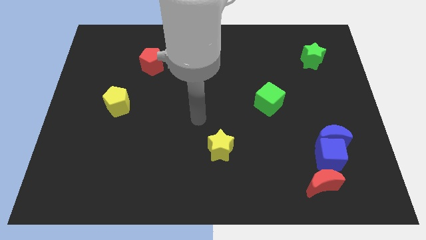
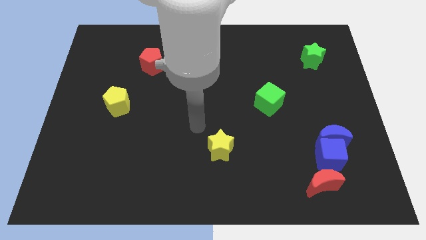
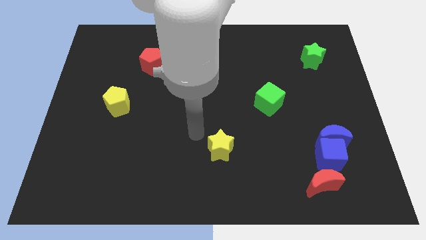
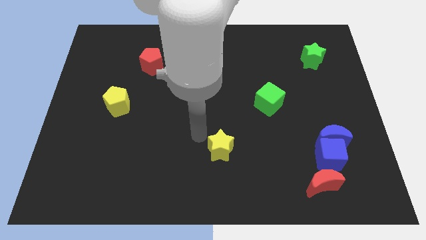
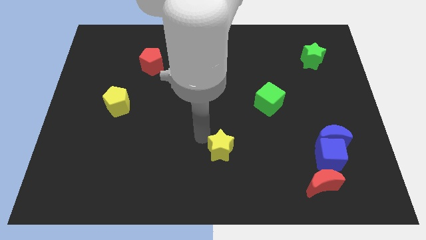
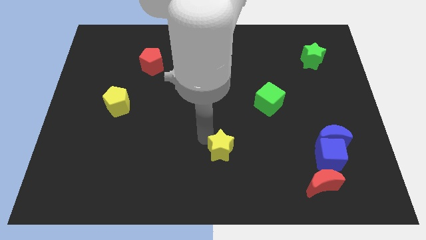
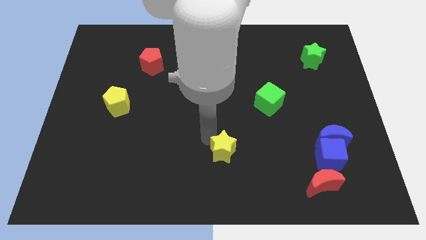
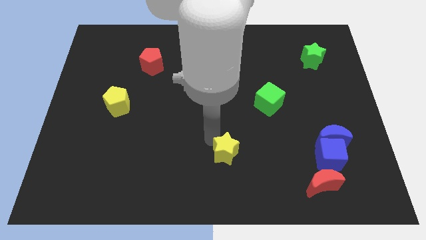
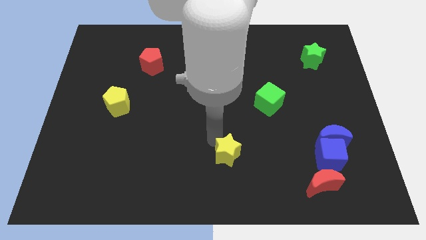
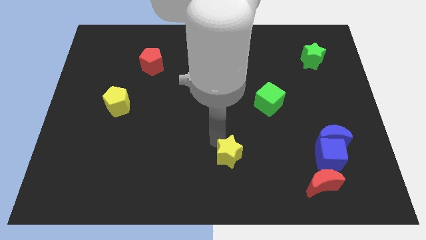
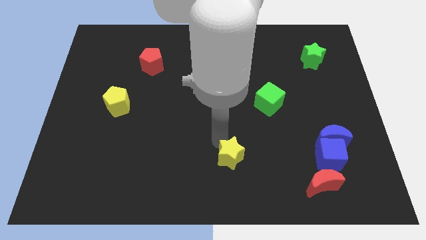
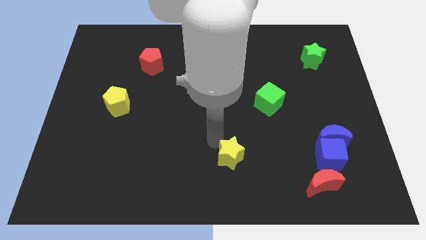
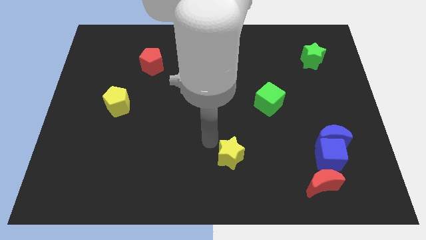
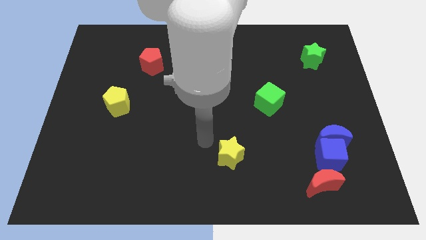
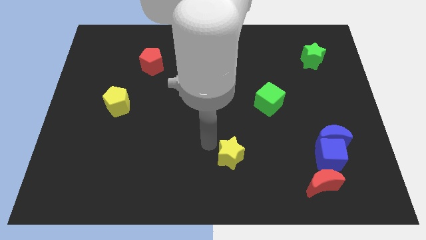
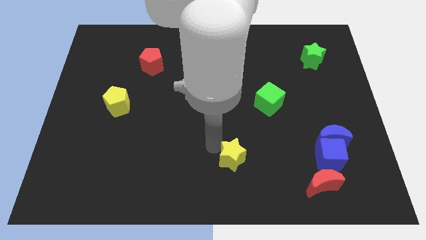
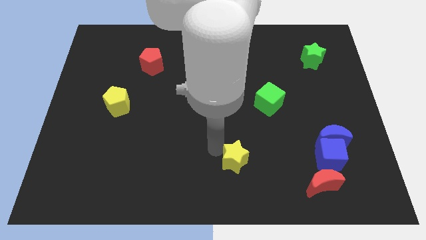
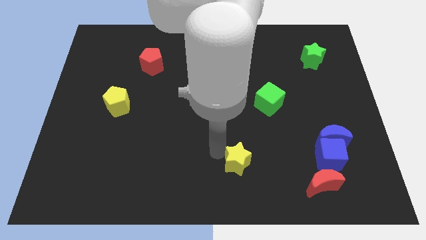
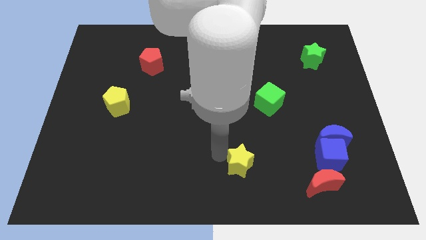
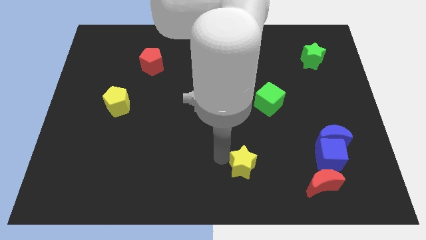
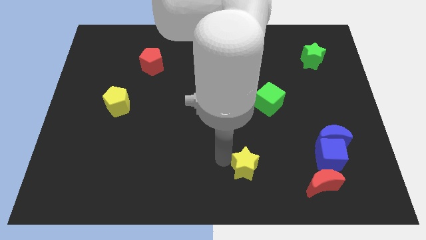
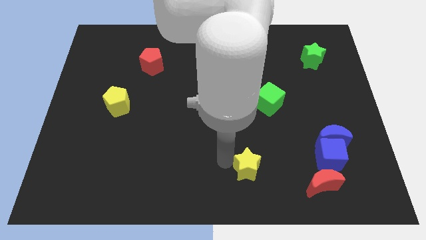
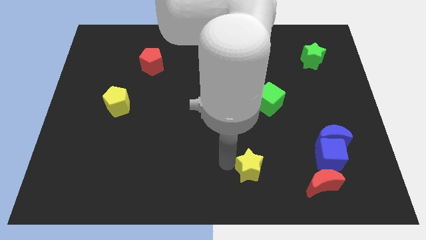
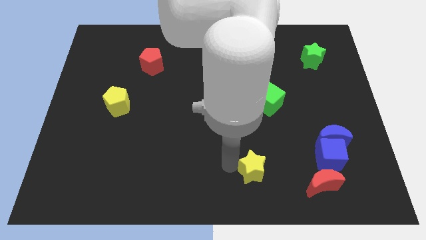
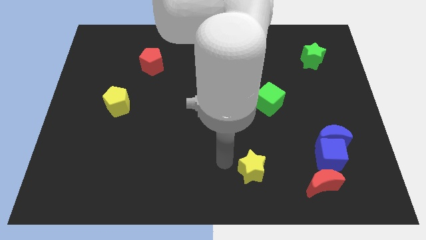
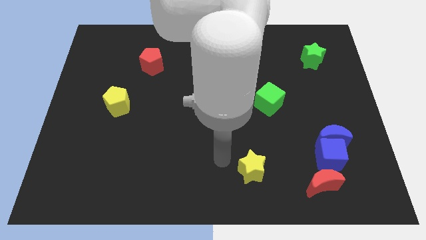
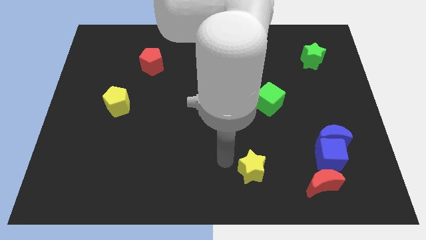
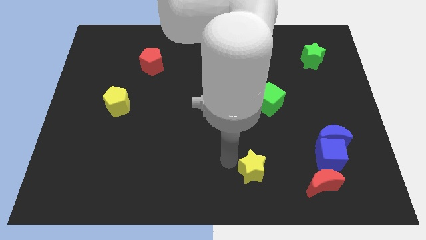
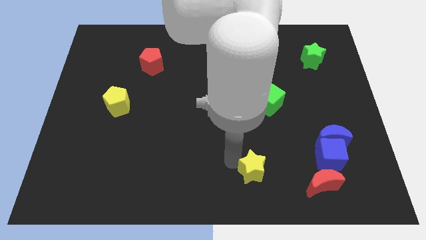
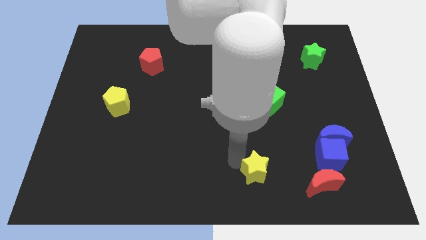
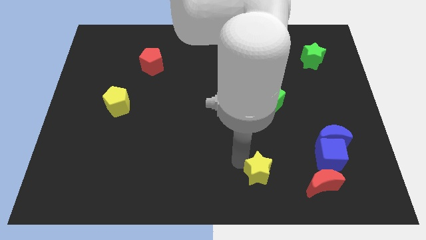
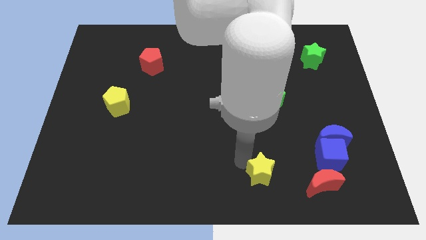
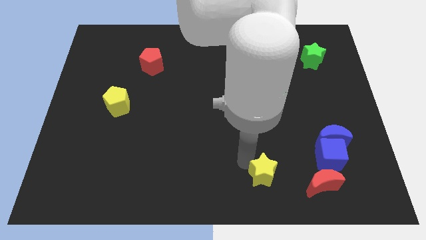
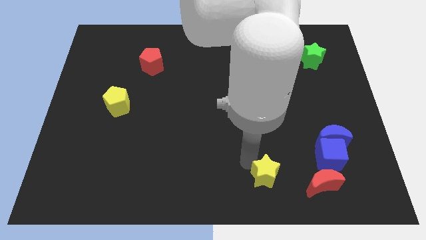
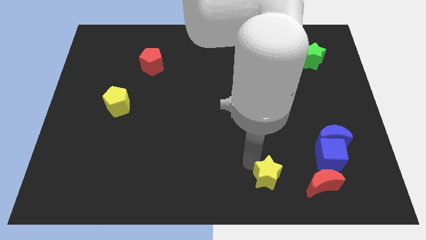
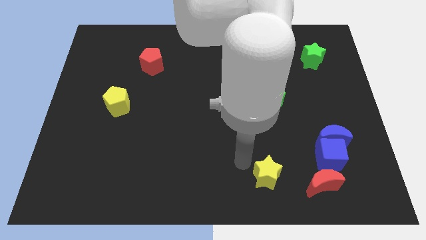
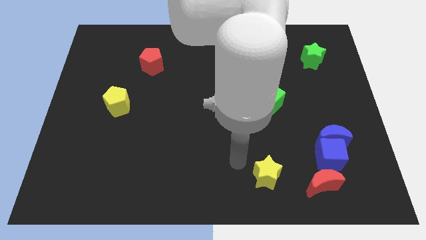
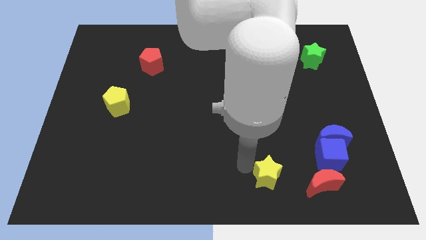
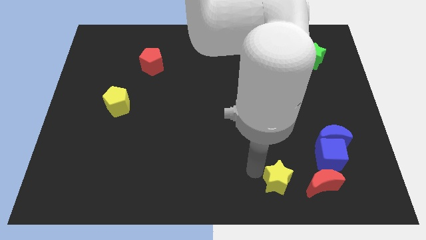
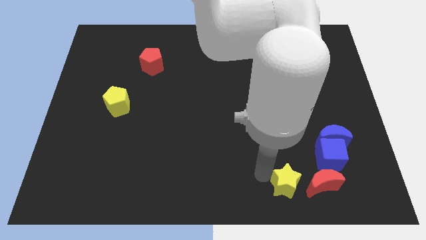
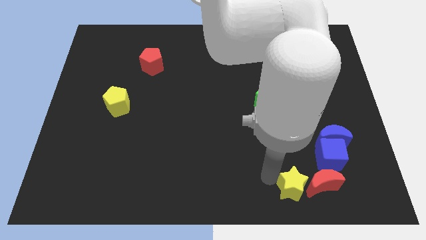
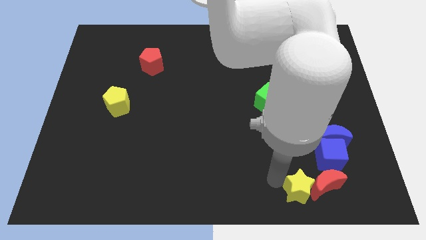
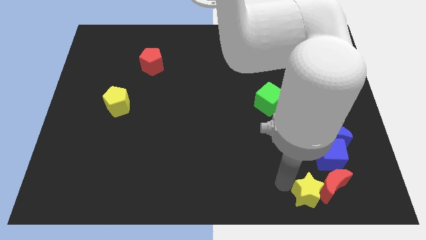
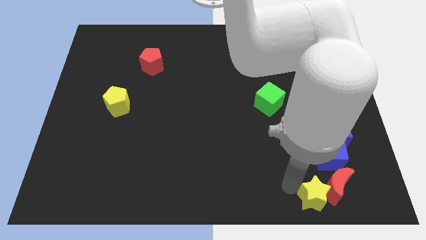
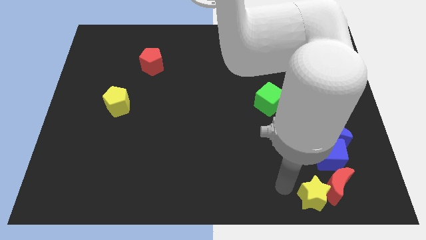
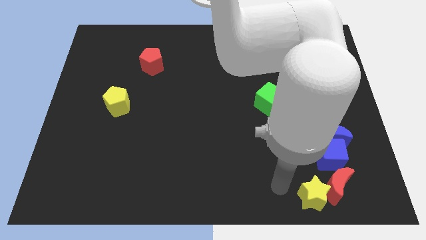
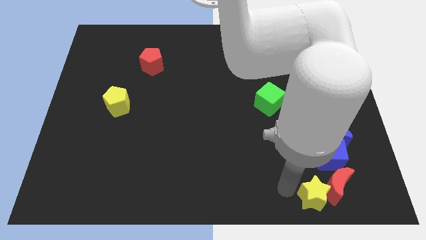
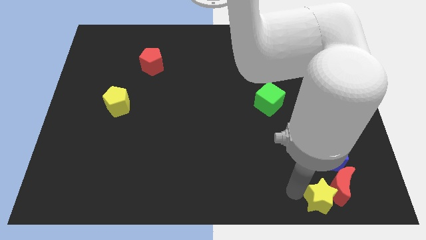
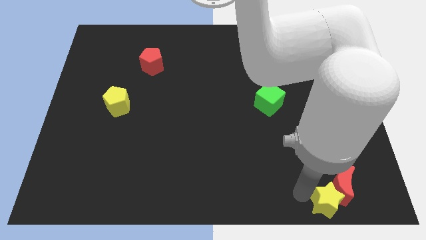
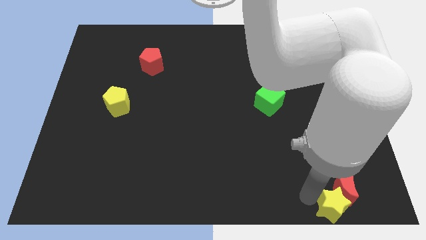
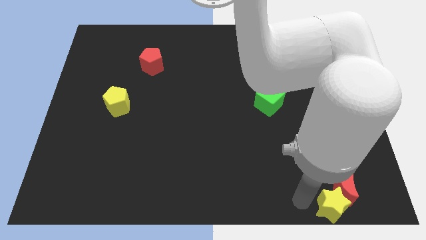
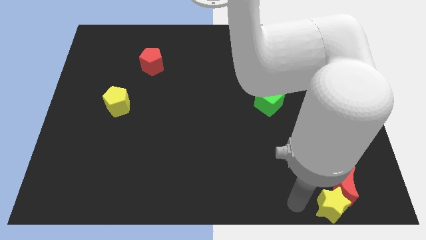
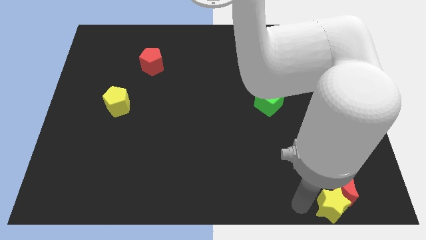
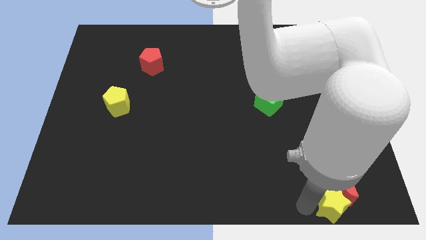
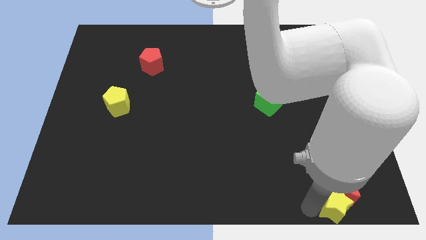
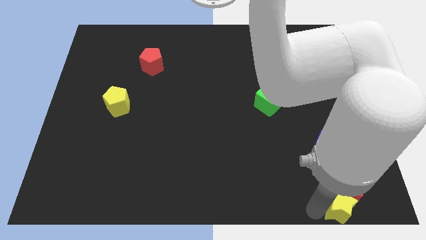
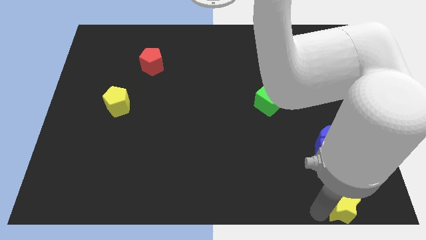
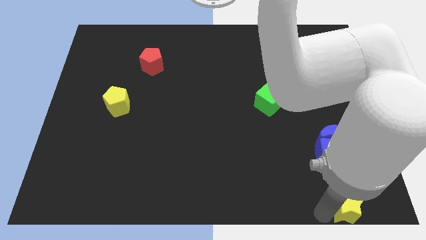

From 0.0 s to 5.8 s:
push the yellow star to the bottom right of the board
